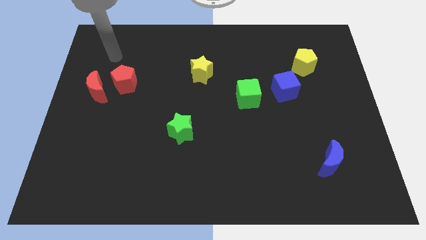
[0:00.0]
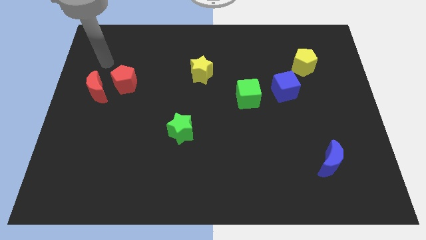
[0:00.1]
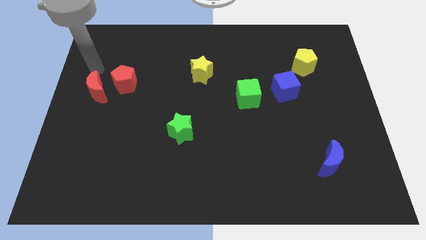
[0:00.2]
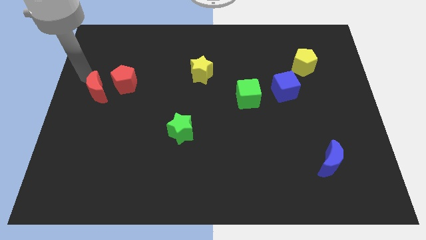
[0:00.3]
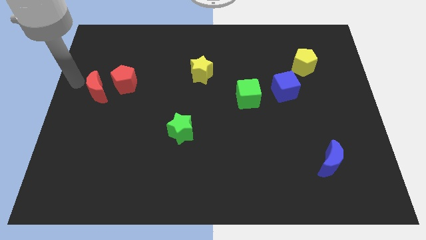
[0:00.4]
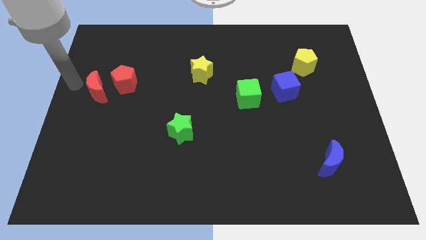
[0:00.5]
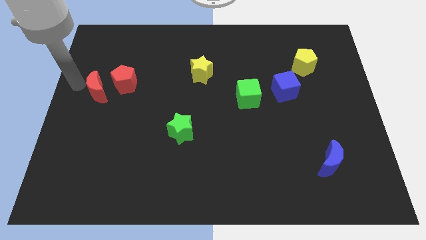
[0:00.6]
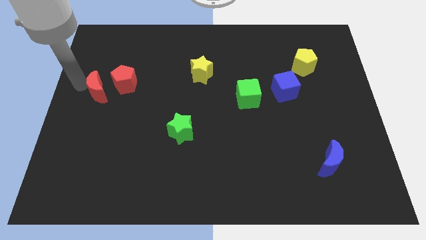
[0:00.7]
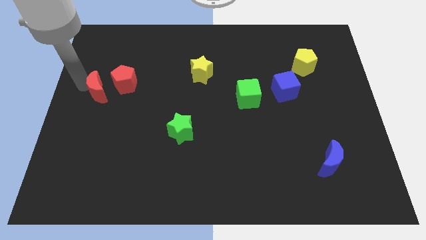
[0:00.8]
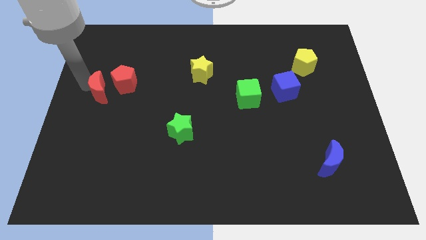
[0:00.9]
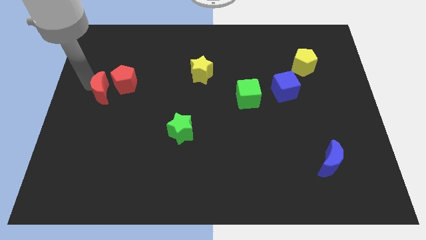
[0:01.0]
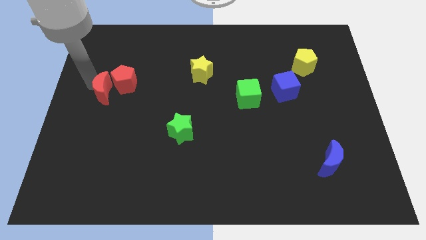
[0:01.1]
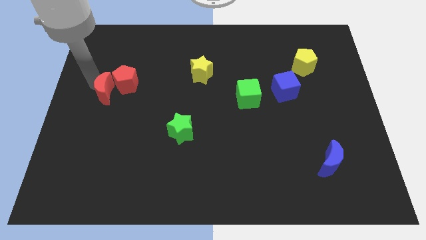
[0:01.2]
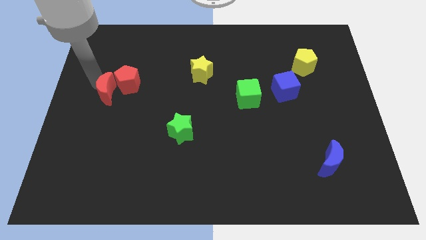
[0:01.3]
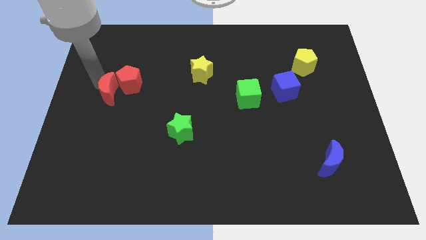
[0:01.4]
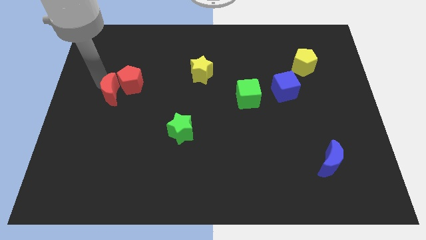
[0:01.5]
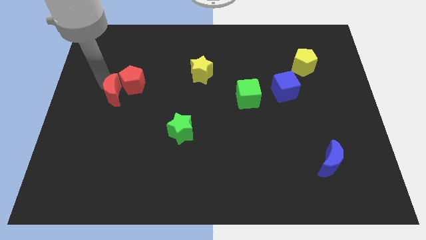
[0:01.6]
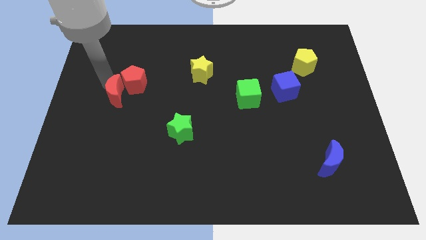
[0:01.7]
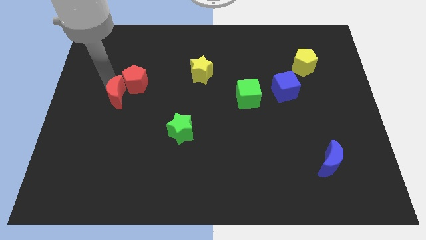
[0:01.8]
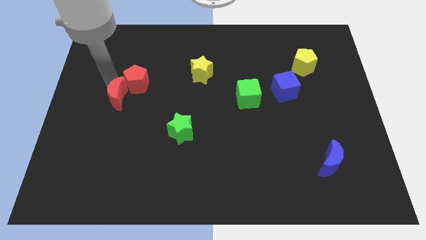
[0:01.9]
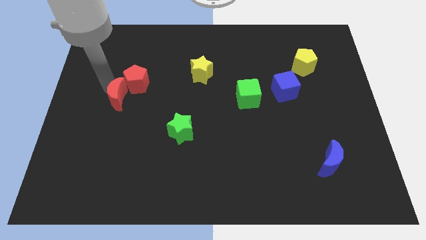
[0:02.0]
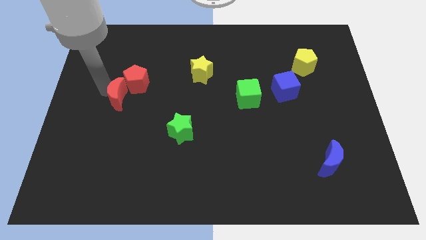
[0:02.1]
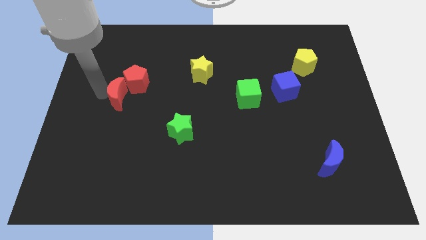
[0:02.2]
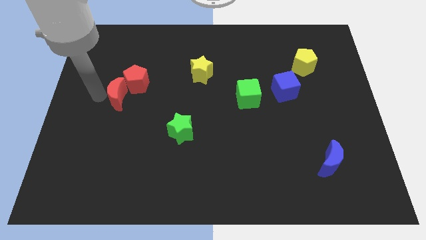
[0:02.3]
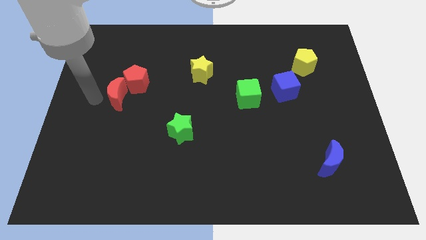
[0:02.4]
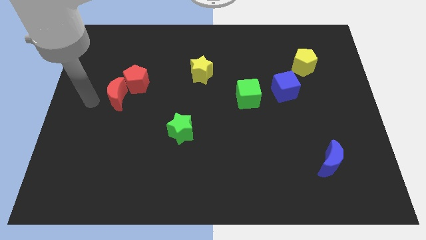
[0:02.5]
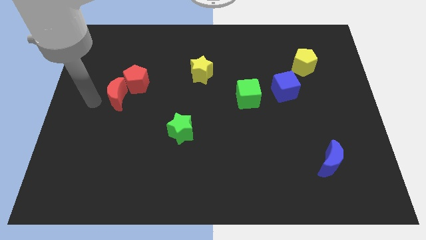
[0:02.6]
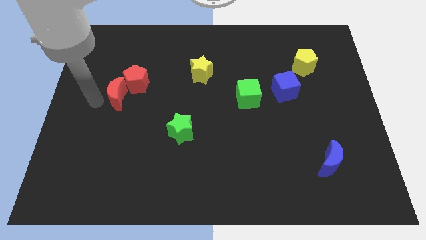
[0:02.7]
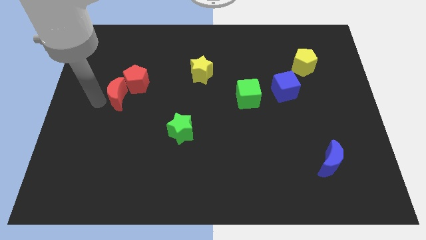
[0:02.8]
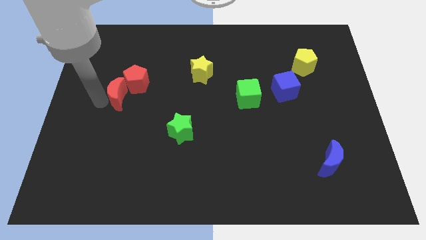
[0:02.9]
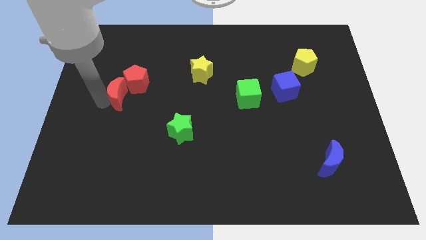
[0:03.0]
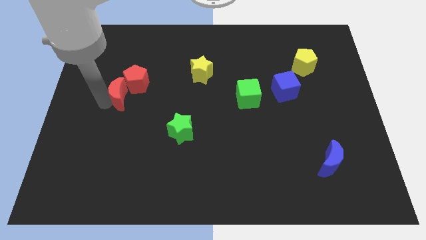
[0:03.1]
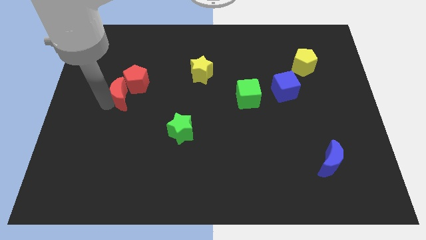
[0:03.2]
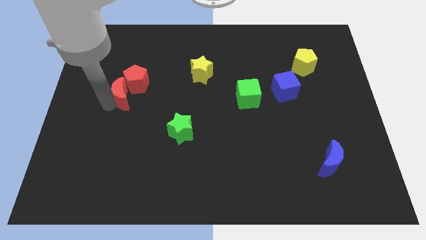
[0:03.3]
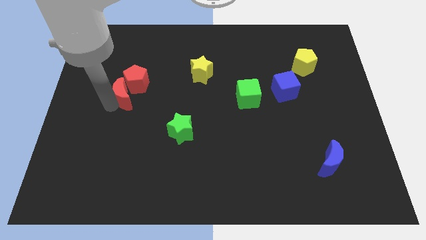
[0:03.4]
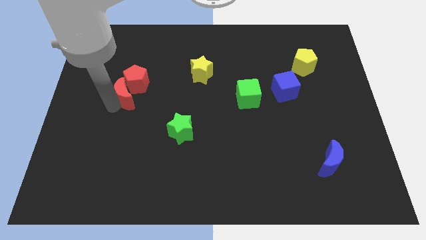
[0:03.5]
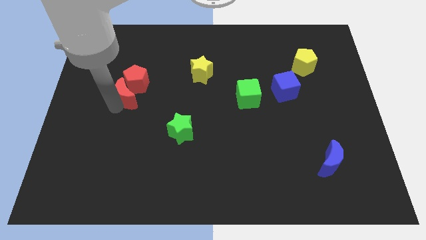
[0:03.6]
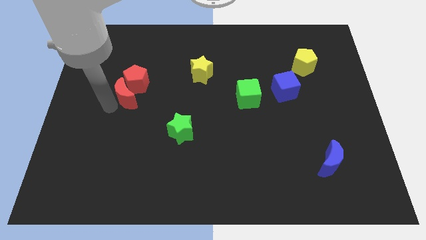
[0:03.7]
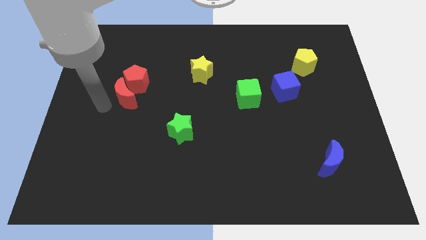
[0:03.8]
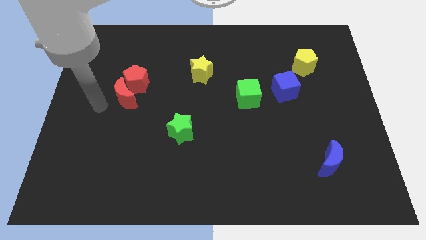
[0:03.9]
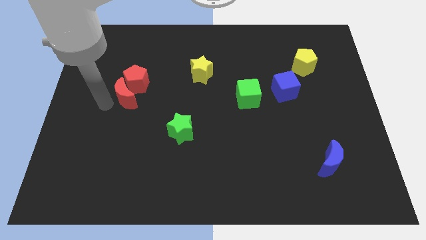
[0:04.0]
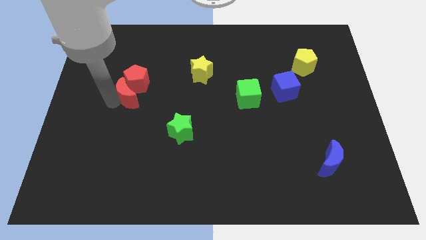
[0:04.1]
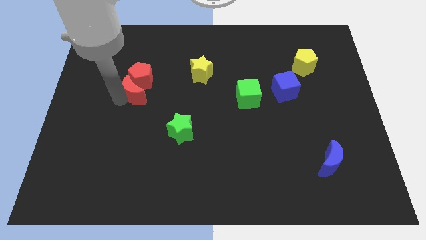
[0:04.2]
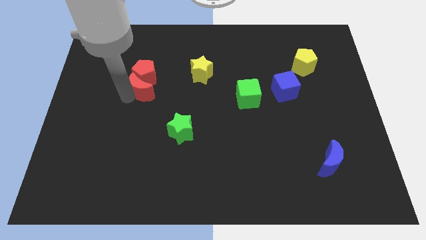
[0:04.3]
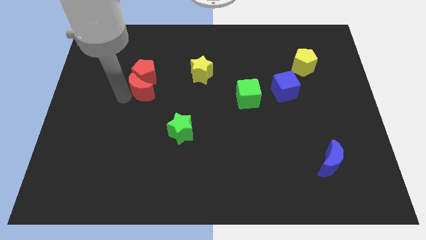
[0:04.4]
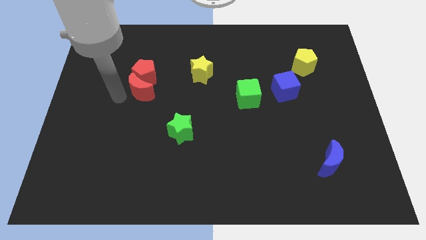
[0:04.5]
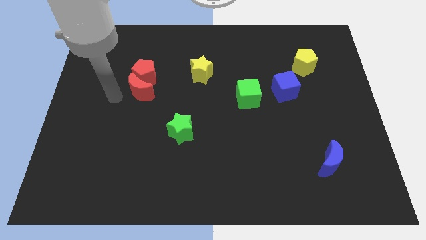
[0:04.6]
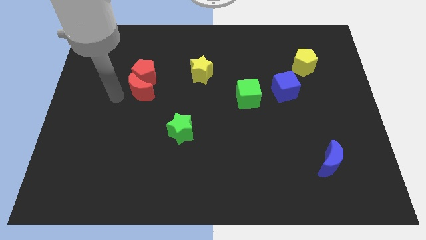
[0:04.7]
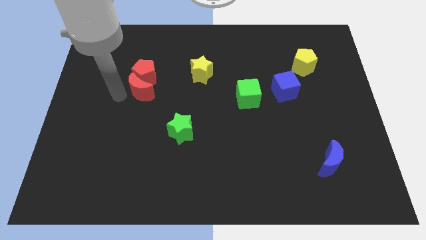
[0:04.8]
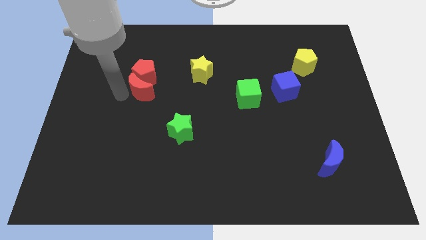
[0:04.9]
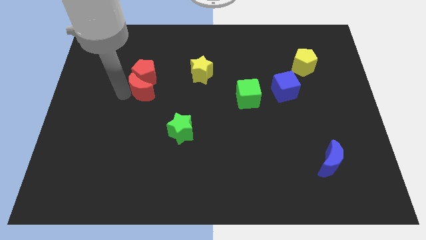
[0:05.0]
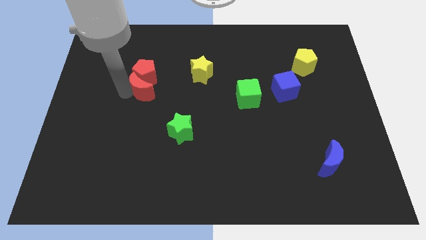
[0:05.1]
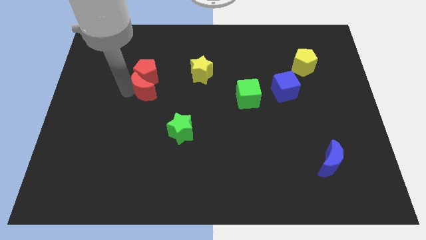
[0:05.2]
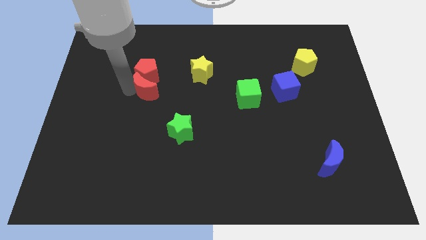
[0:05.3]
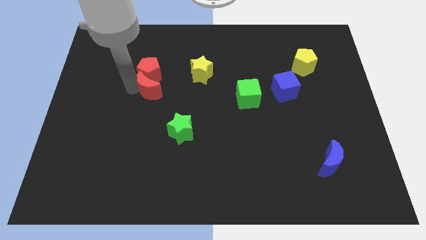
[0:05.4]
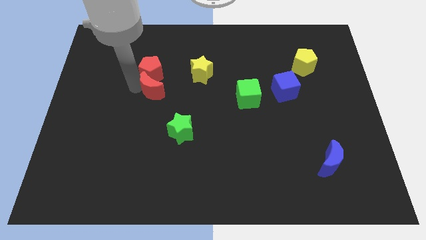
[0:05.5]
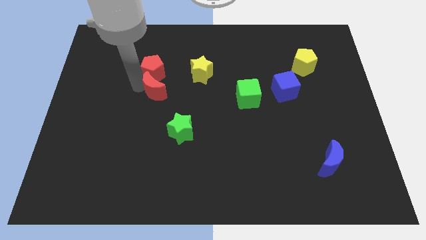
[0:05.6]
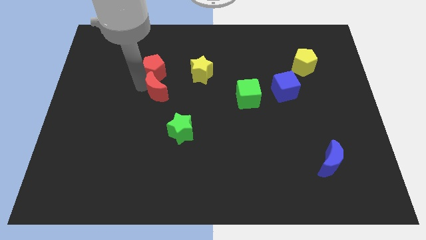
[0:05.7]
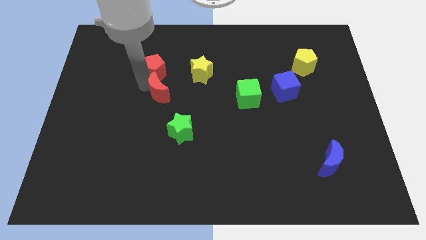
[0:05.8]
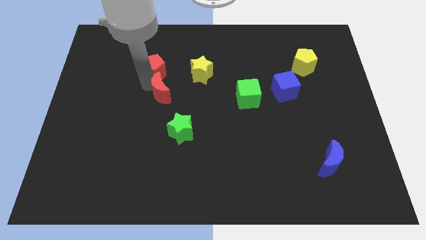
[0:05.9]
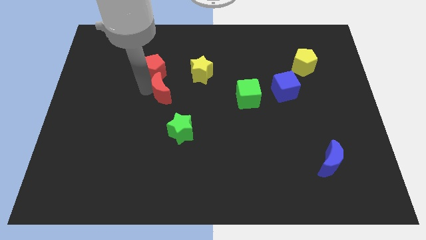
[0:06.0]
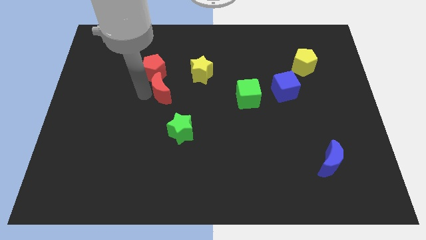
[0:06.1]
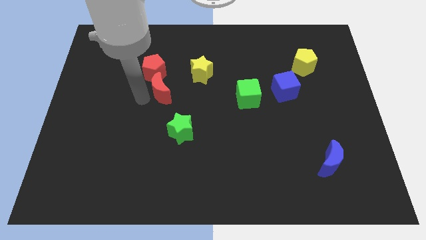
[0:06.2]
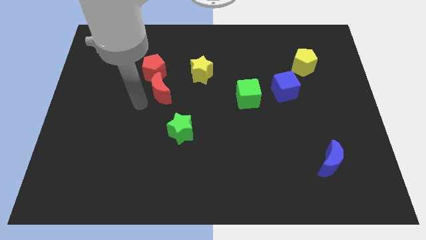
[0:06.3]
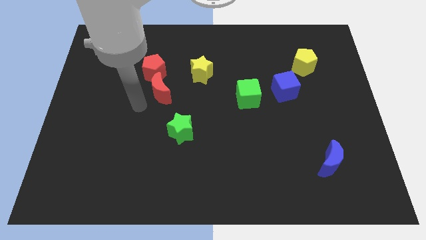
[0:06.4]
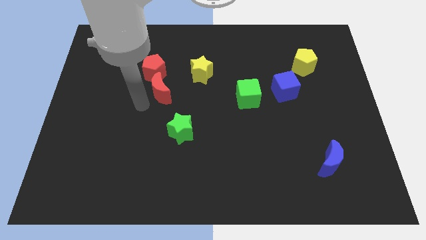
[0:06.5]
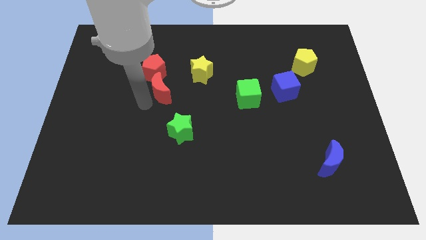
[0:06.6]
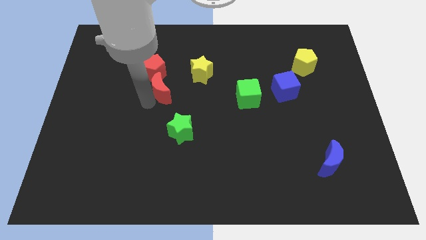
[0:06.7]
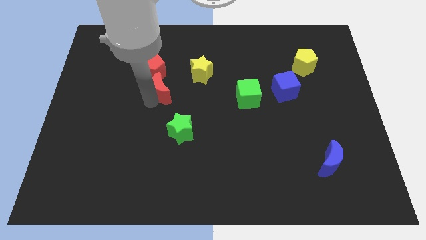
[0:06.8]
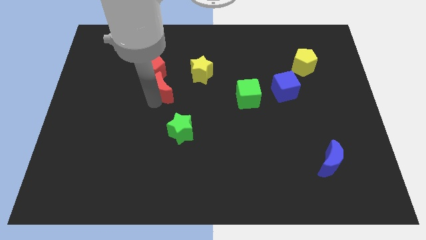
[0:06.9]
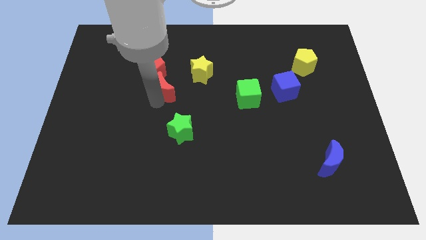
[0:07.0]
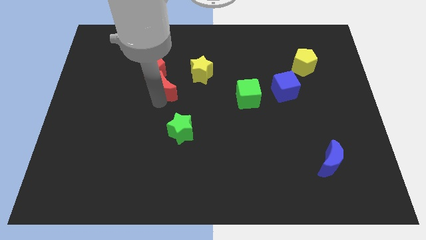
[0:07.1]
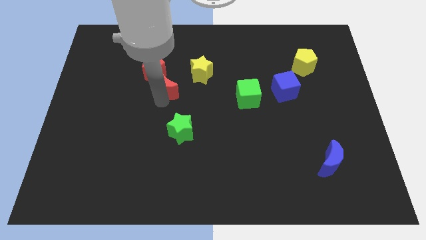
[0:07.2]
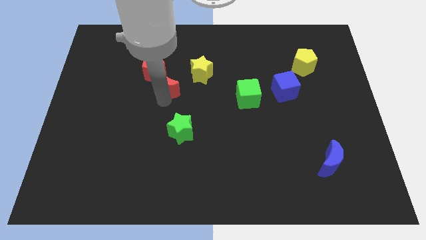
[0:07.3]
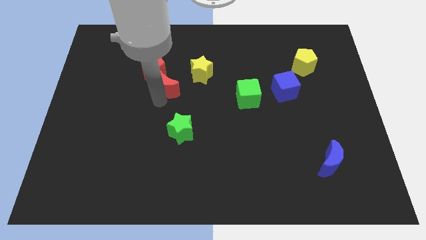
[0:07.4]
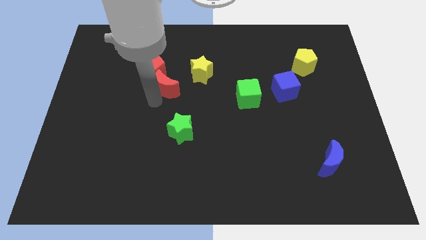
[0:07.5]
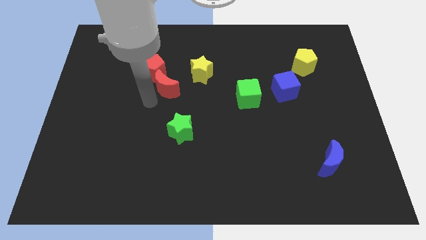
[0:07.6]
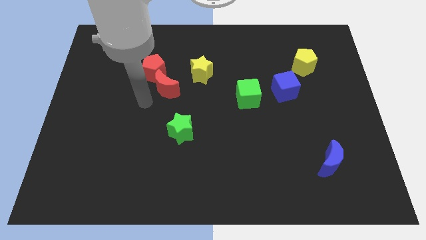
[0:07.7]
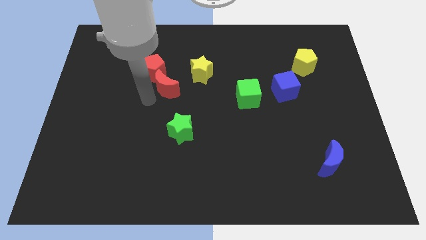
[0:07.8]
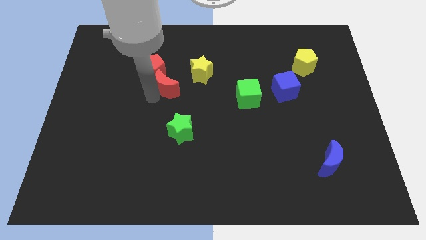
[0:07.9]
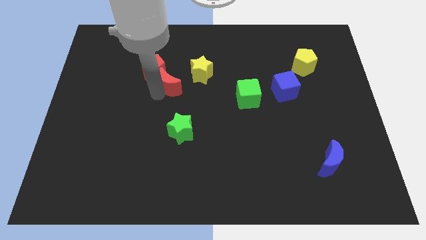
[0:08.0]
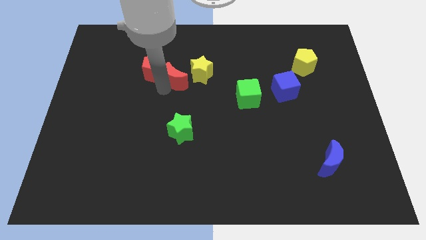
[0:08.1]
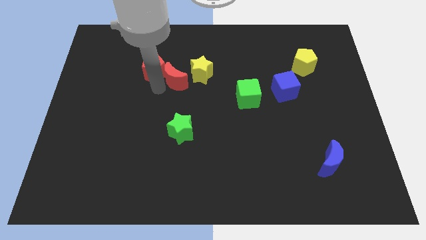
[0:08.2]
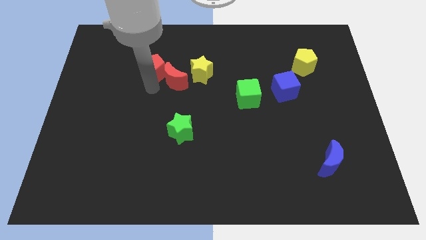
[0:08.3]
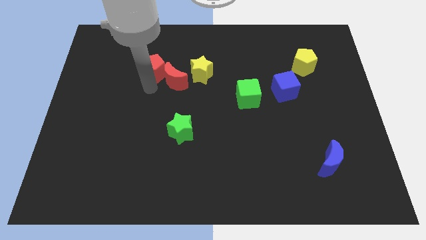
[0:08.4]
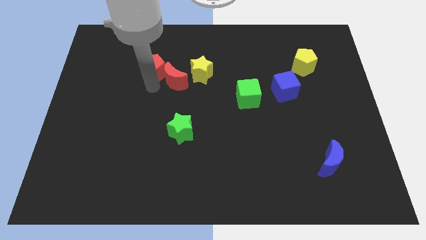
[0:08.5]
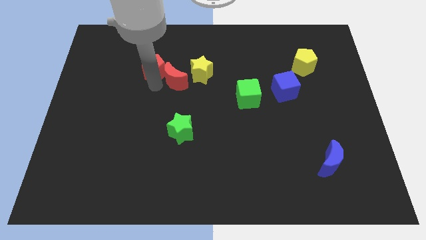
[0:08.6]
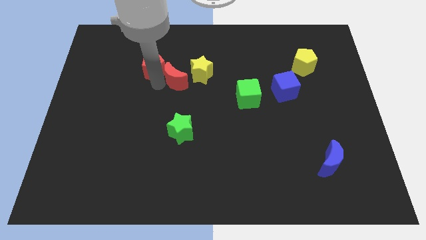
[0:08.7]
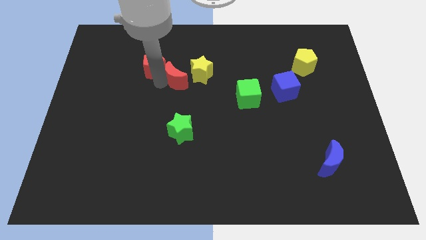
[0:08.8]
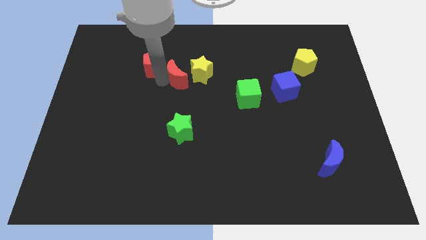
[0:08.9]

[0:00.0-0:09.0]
put the red moon towards the yellow star
